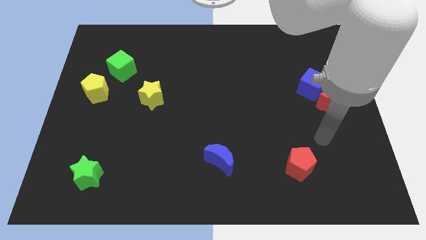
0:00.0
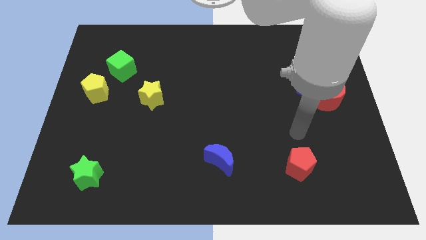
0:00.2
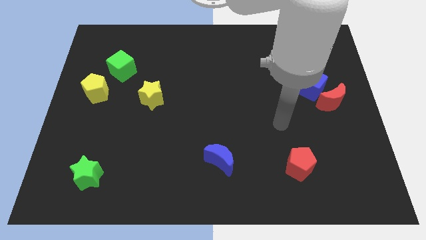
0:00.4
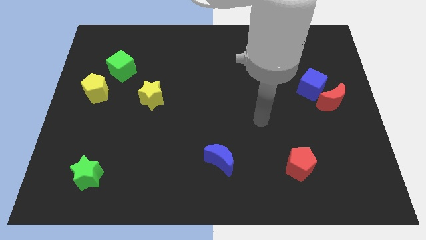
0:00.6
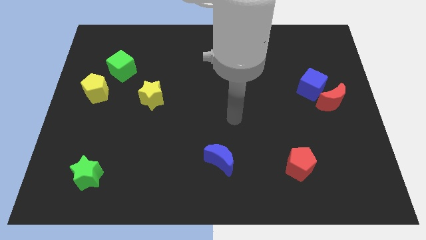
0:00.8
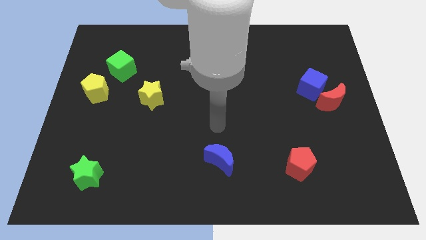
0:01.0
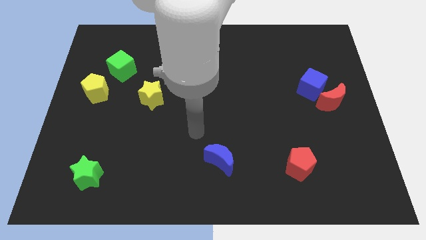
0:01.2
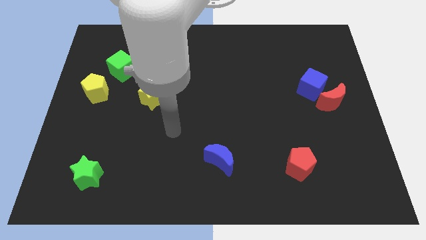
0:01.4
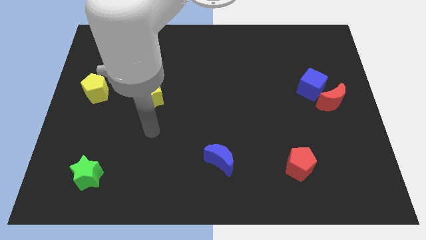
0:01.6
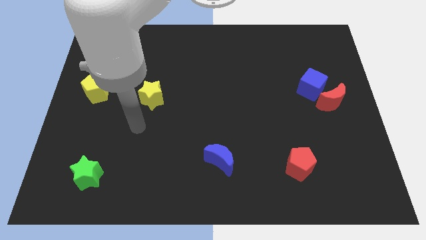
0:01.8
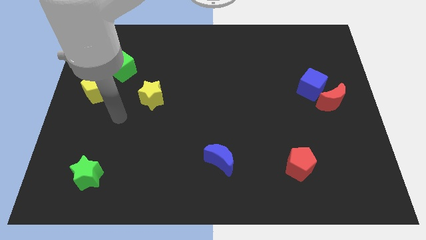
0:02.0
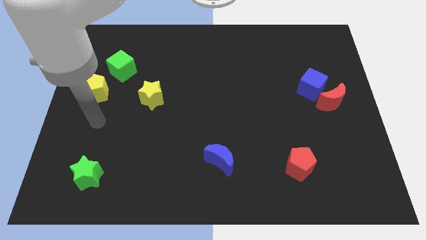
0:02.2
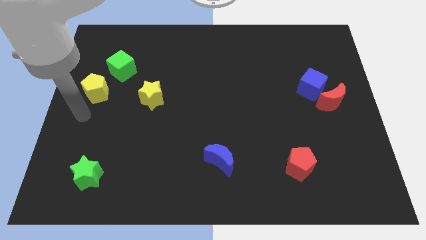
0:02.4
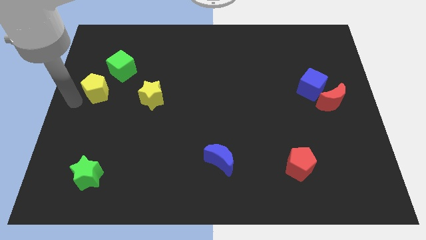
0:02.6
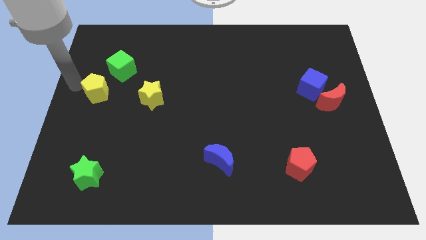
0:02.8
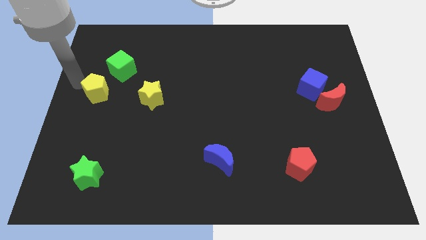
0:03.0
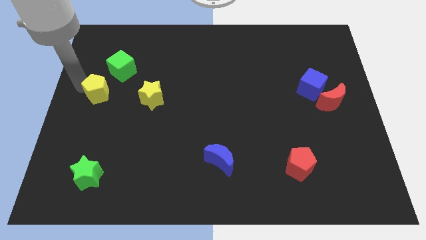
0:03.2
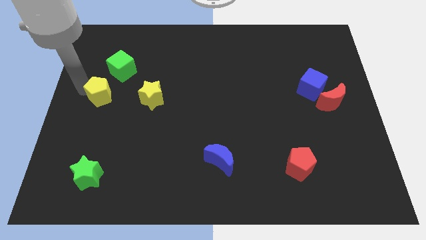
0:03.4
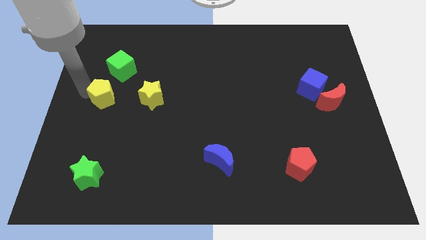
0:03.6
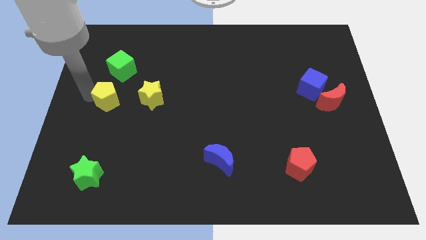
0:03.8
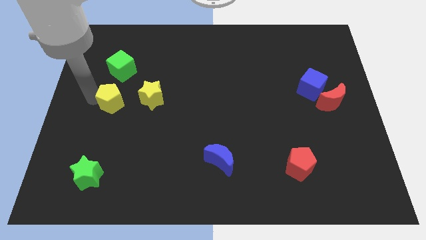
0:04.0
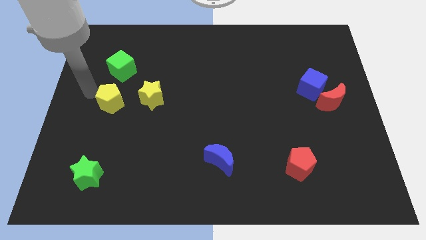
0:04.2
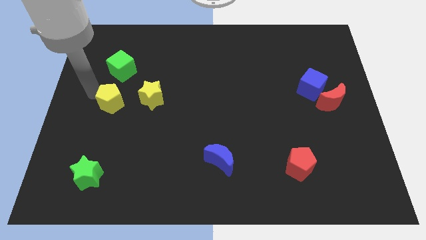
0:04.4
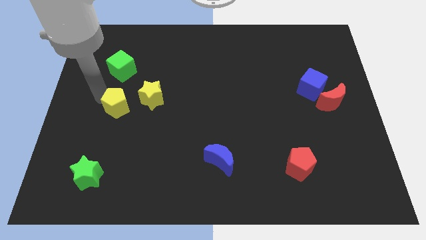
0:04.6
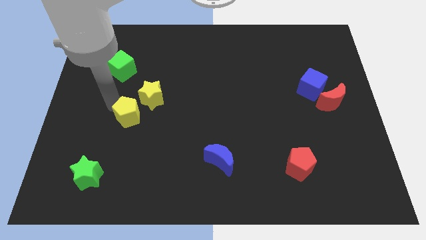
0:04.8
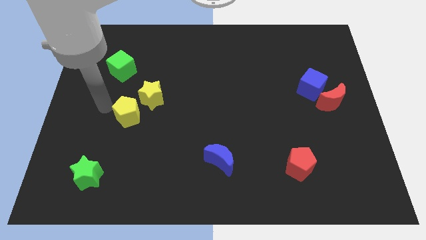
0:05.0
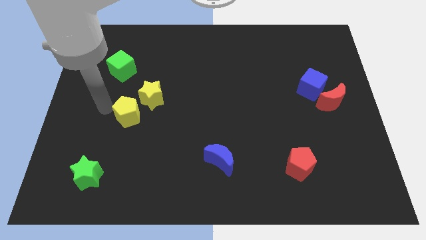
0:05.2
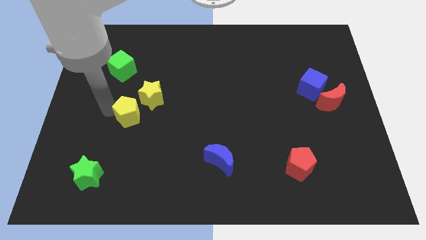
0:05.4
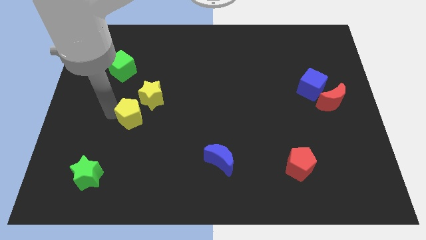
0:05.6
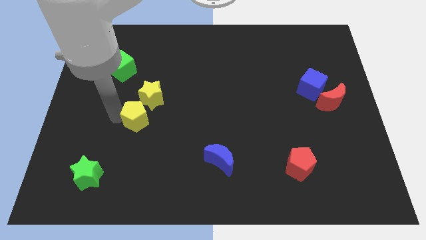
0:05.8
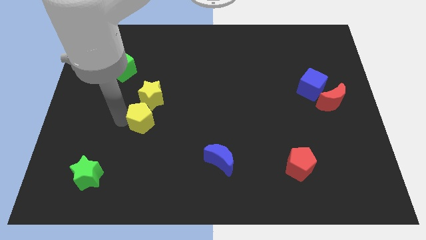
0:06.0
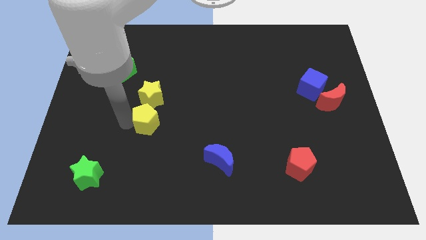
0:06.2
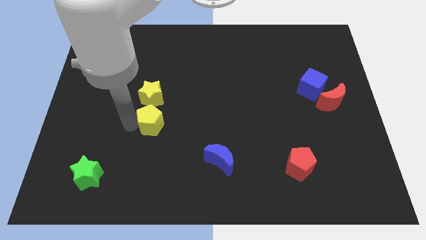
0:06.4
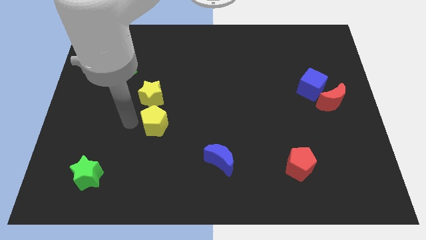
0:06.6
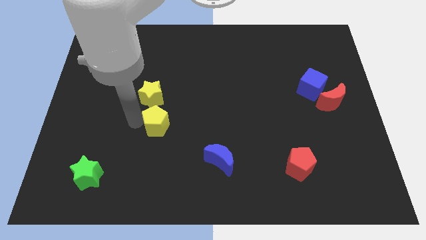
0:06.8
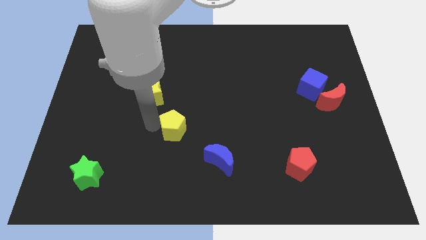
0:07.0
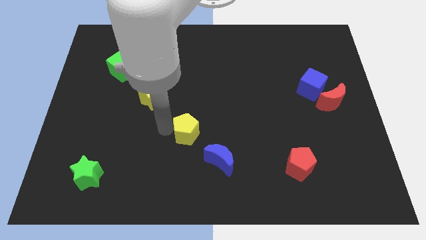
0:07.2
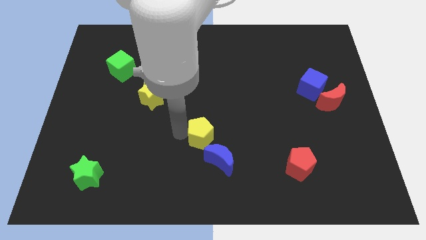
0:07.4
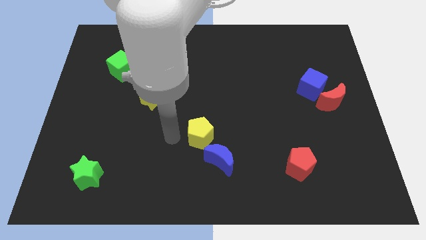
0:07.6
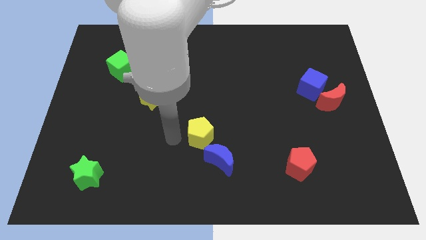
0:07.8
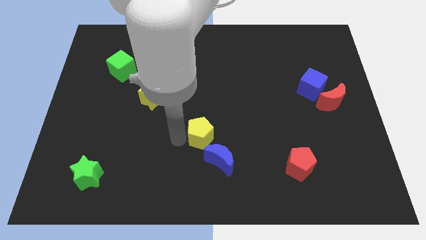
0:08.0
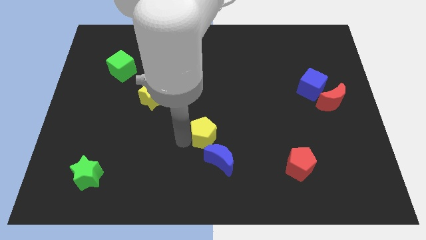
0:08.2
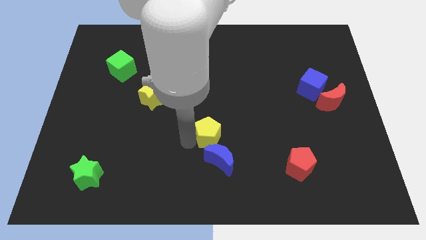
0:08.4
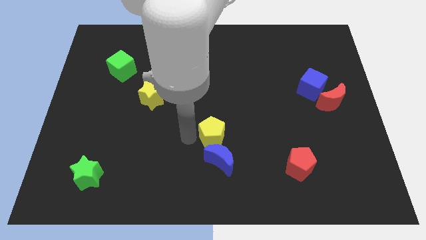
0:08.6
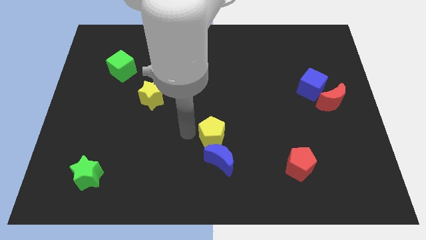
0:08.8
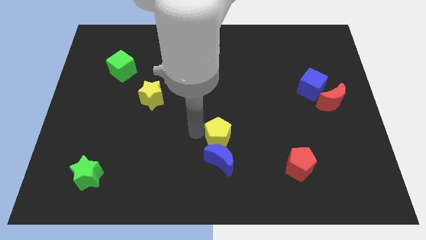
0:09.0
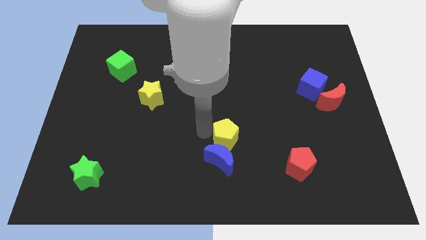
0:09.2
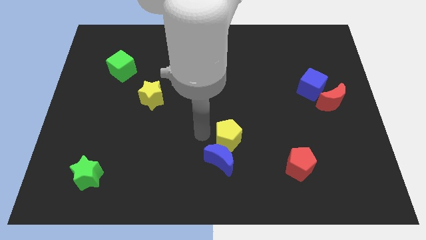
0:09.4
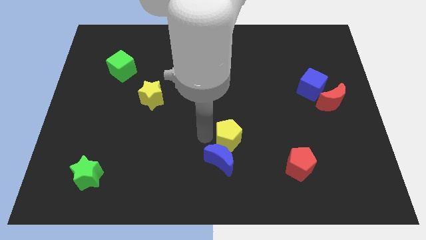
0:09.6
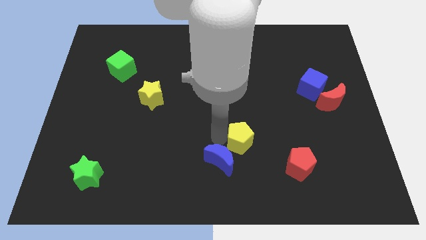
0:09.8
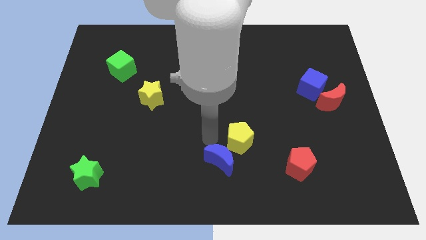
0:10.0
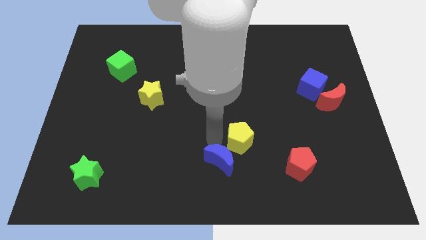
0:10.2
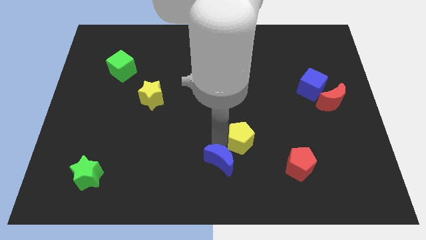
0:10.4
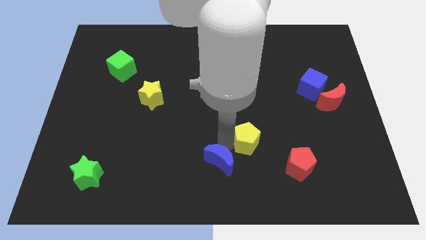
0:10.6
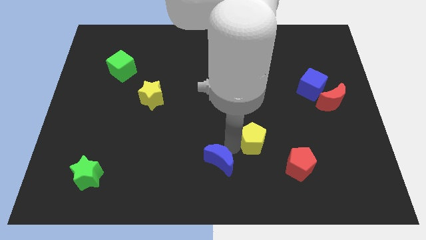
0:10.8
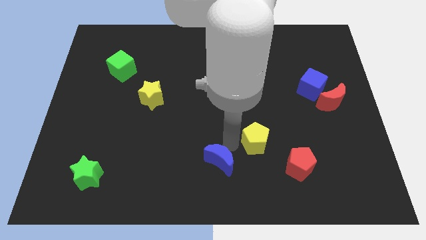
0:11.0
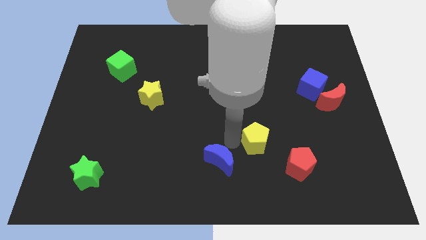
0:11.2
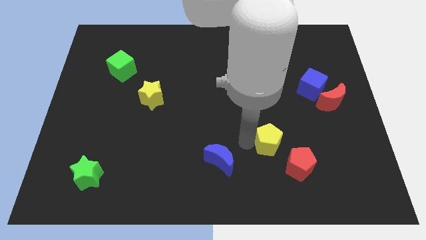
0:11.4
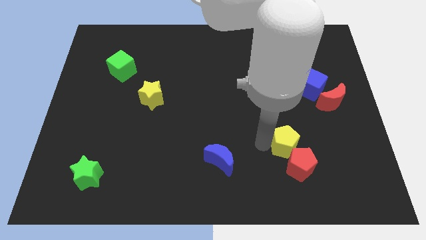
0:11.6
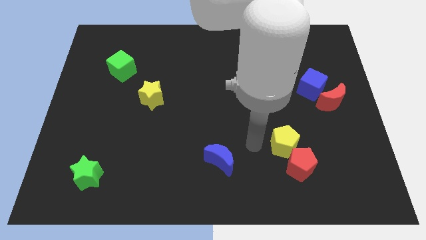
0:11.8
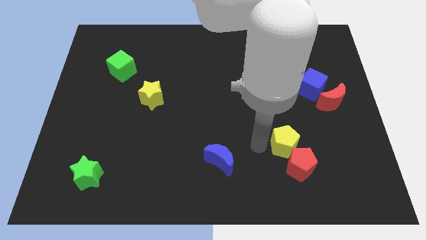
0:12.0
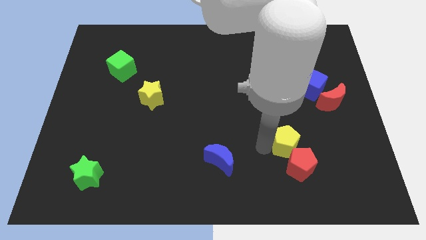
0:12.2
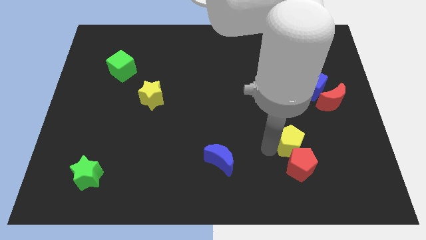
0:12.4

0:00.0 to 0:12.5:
move the yellow pentagon to the top right of the red pentagon

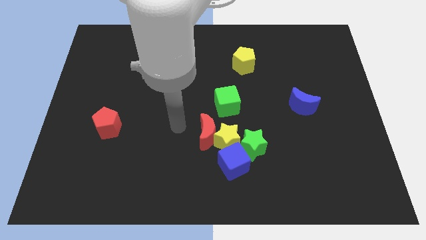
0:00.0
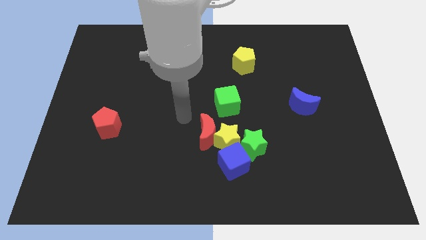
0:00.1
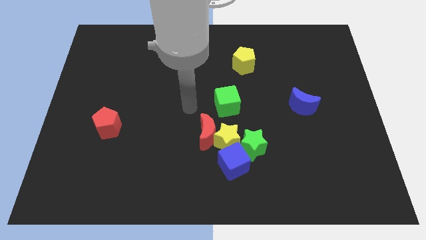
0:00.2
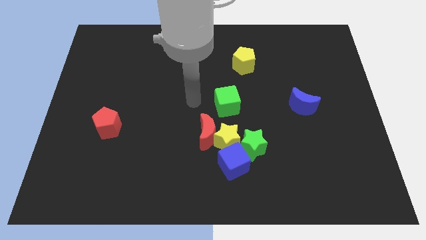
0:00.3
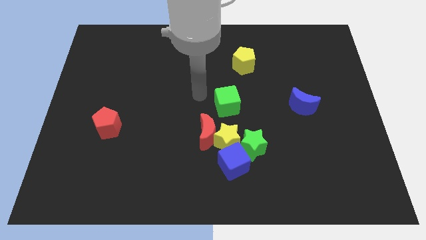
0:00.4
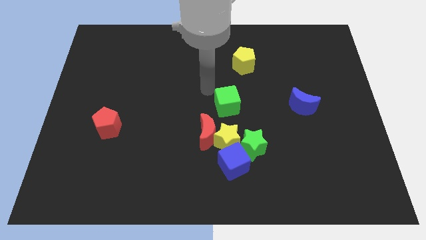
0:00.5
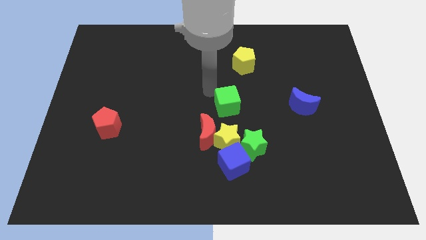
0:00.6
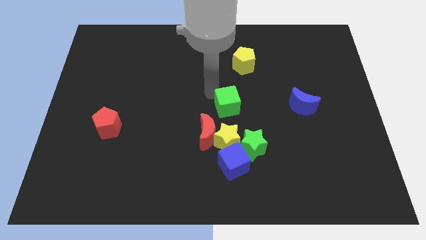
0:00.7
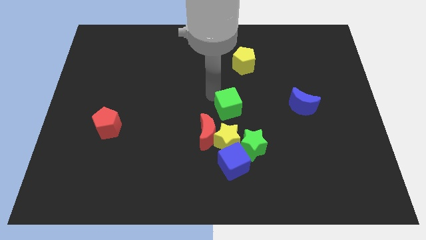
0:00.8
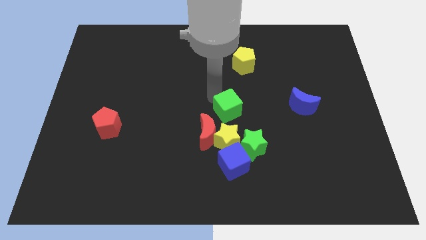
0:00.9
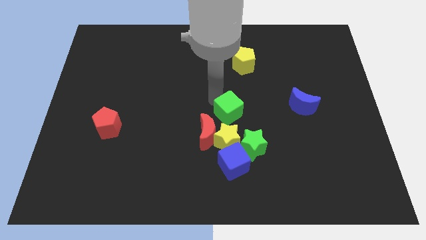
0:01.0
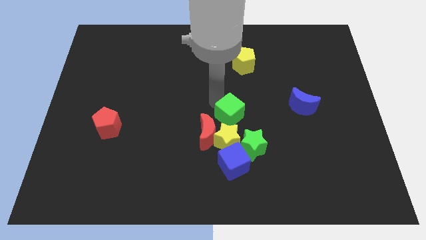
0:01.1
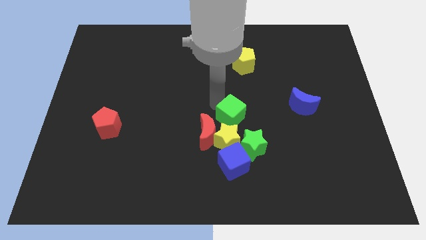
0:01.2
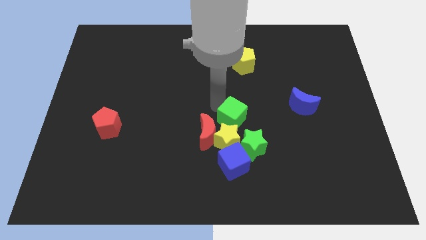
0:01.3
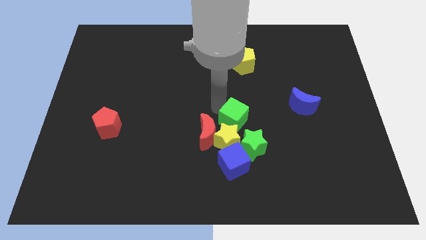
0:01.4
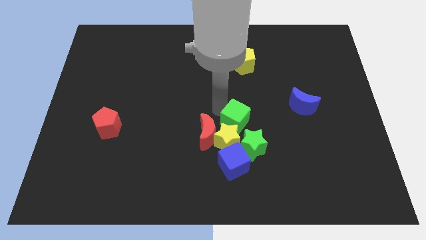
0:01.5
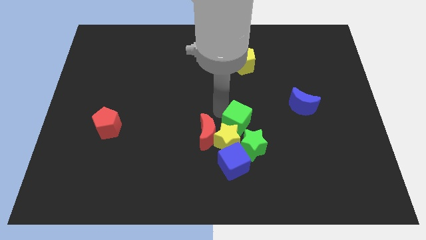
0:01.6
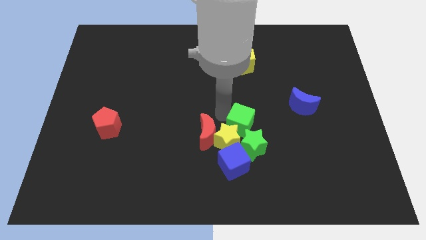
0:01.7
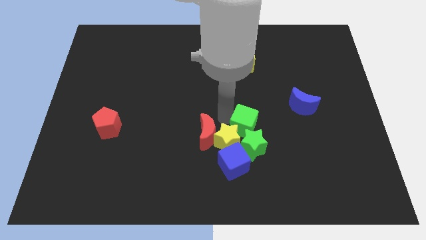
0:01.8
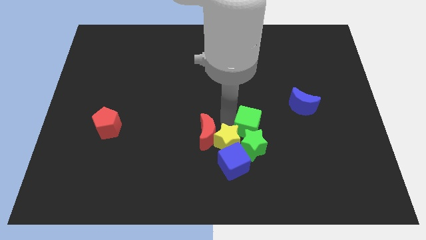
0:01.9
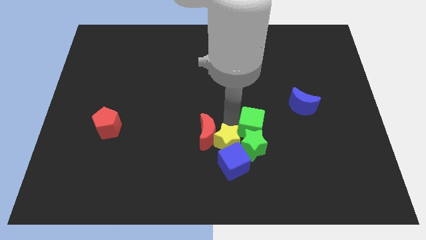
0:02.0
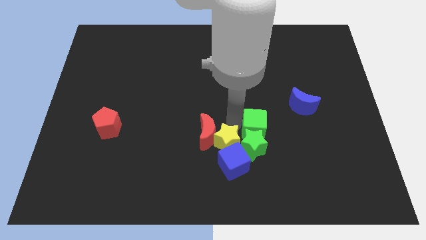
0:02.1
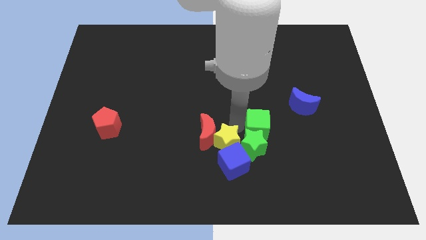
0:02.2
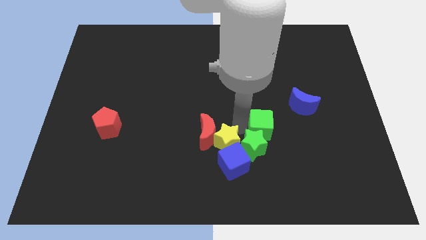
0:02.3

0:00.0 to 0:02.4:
slide the green cube diagonally down and to the left of the blue moon

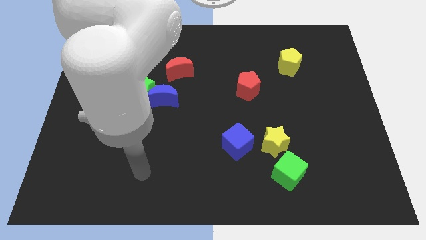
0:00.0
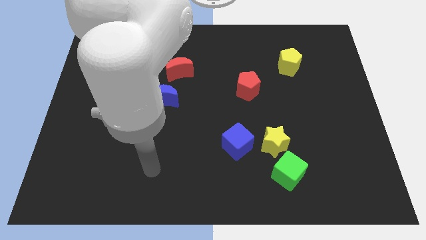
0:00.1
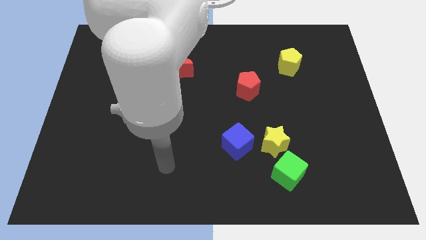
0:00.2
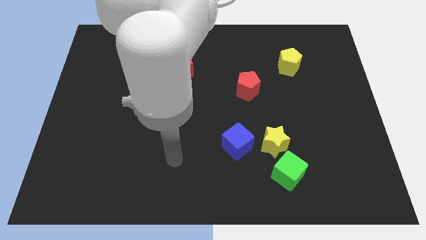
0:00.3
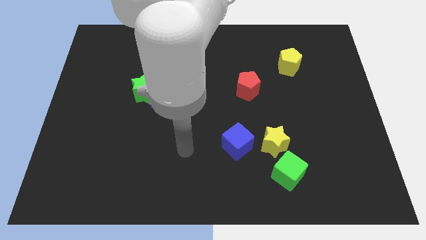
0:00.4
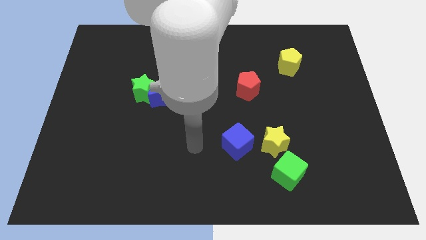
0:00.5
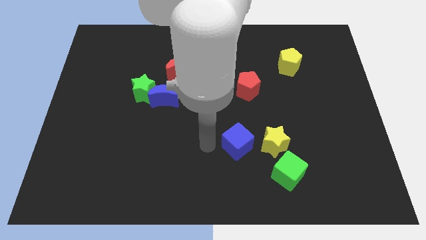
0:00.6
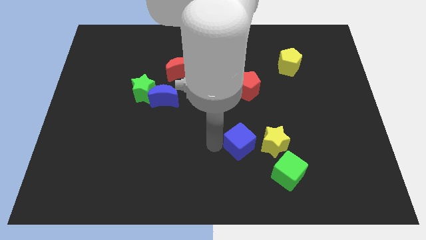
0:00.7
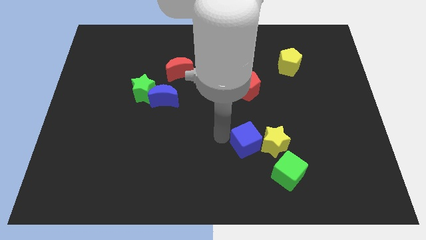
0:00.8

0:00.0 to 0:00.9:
push the red pentagon to the top of the blue cube
